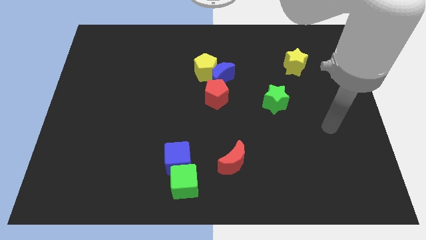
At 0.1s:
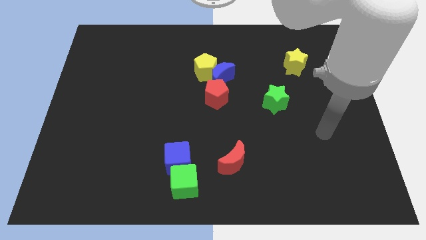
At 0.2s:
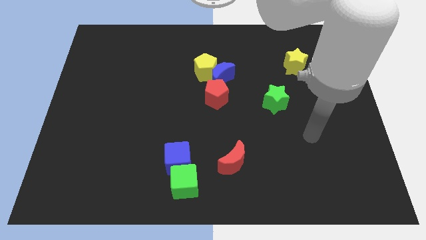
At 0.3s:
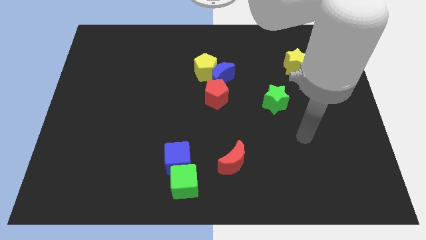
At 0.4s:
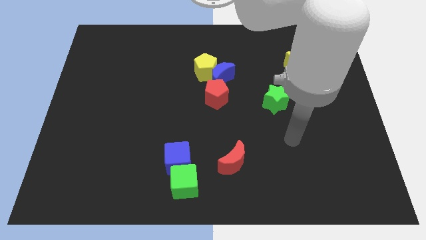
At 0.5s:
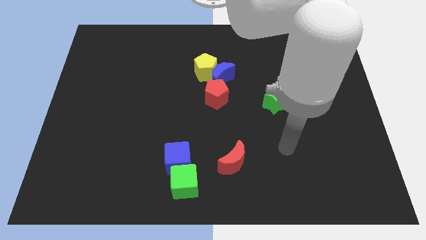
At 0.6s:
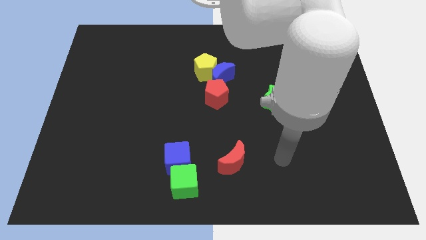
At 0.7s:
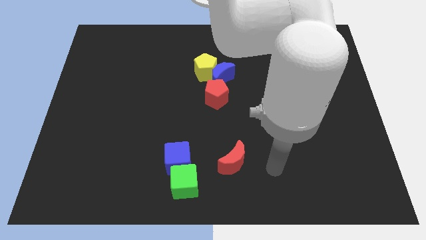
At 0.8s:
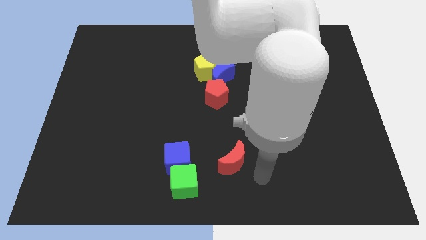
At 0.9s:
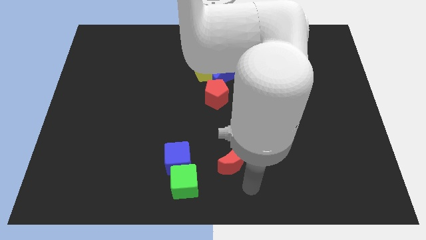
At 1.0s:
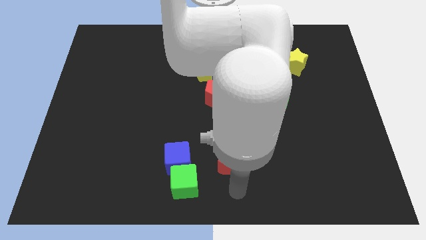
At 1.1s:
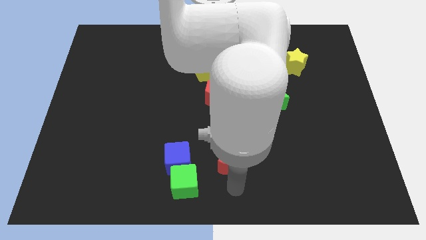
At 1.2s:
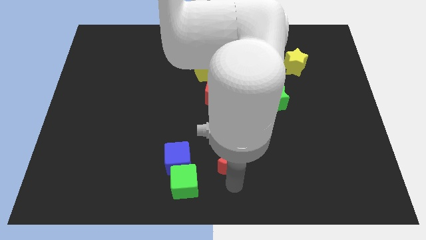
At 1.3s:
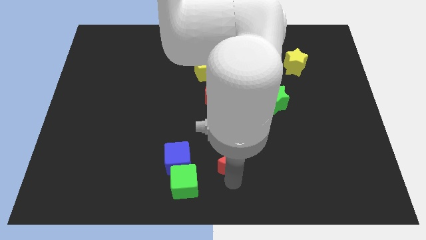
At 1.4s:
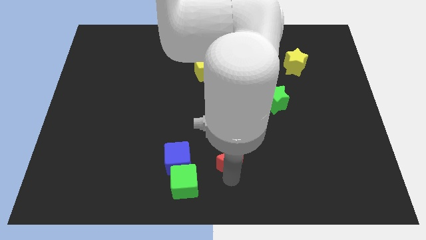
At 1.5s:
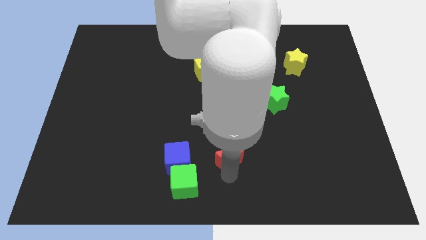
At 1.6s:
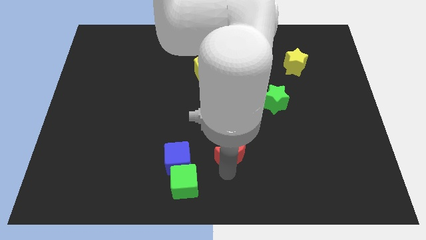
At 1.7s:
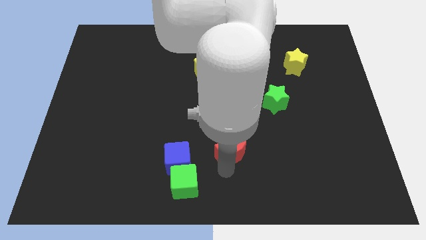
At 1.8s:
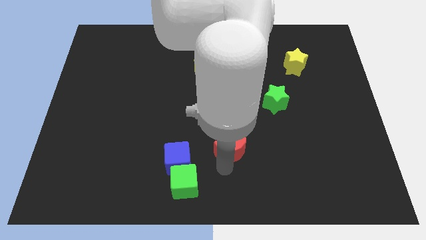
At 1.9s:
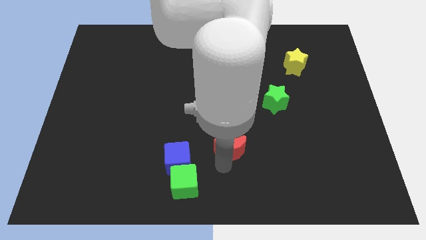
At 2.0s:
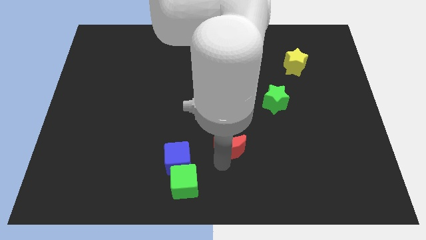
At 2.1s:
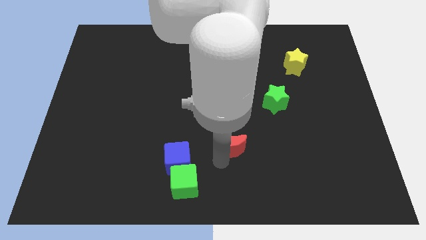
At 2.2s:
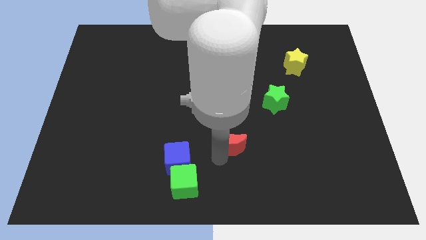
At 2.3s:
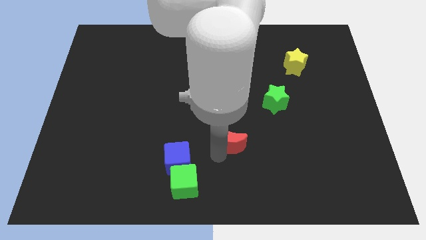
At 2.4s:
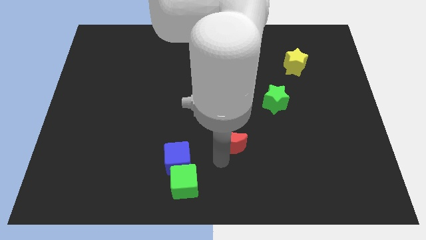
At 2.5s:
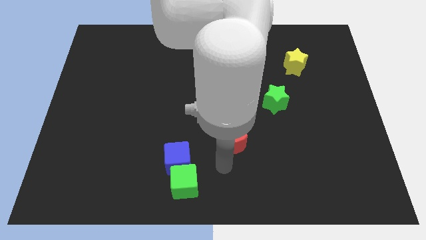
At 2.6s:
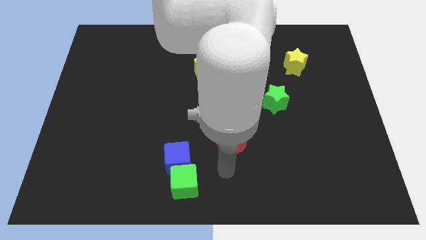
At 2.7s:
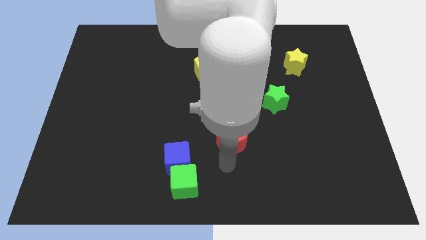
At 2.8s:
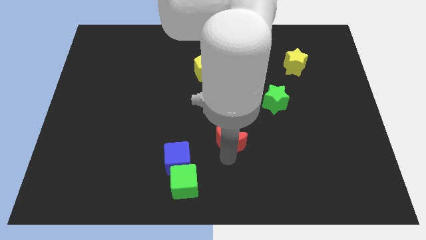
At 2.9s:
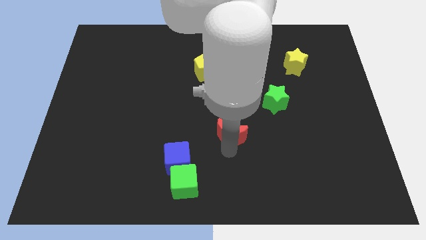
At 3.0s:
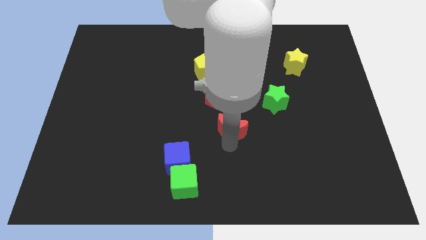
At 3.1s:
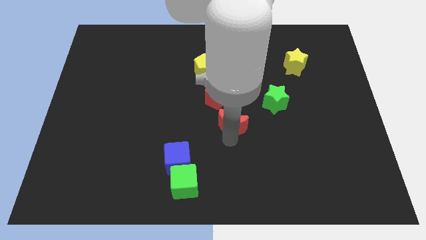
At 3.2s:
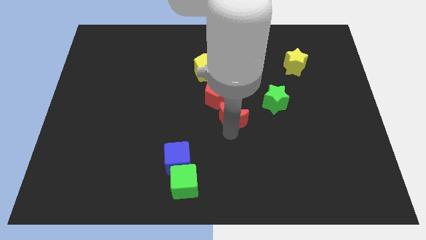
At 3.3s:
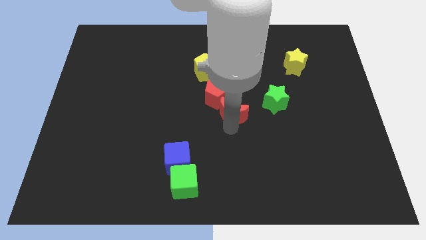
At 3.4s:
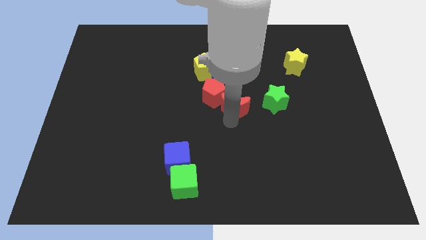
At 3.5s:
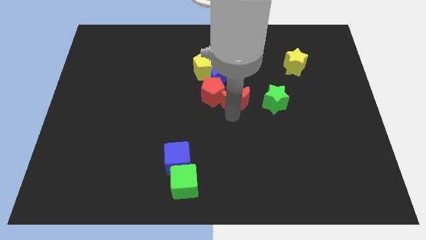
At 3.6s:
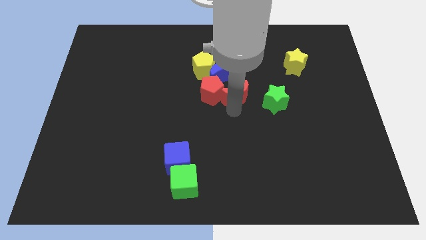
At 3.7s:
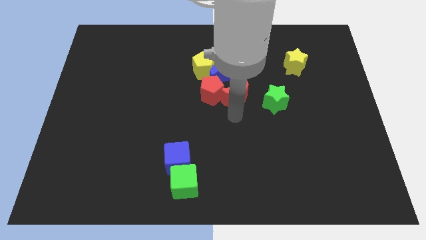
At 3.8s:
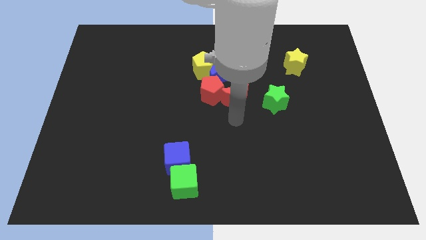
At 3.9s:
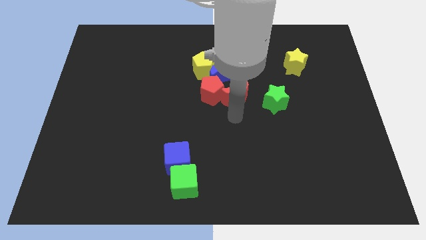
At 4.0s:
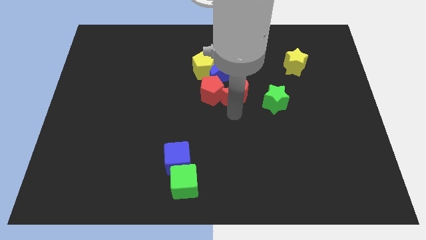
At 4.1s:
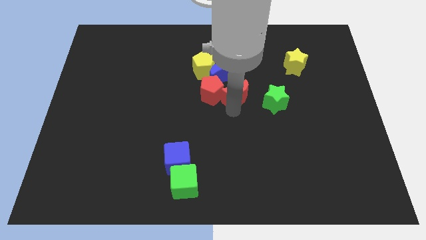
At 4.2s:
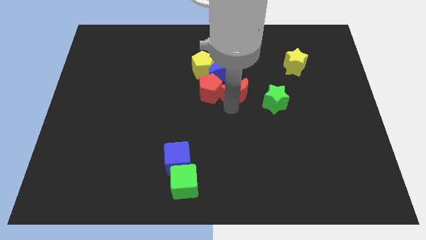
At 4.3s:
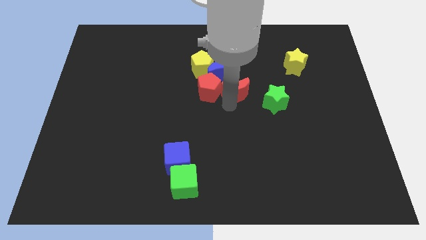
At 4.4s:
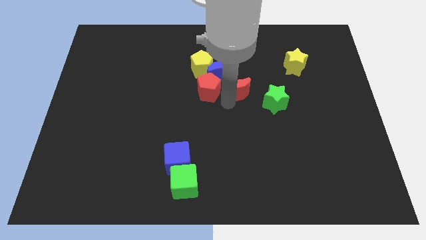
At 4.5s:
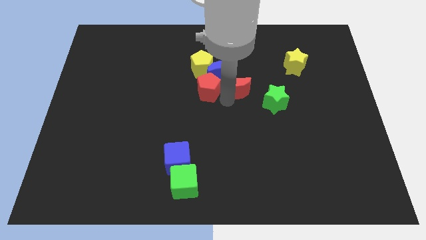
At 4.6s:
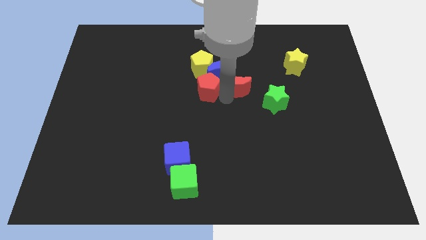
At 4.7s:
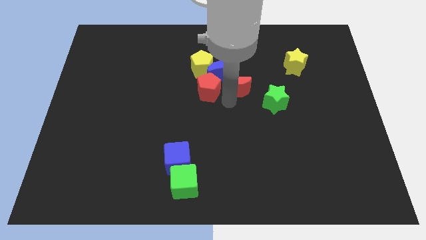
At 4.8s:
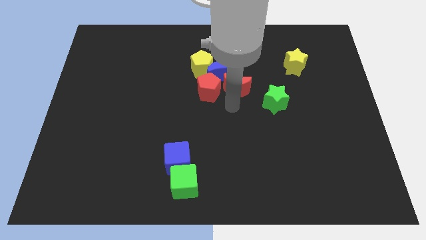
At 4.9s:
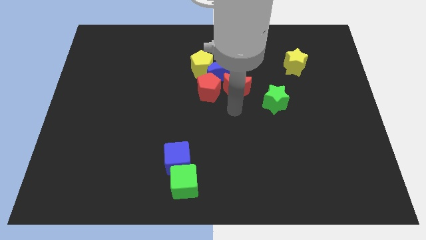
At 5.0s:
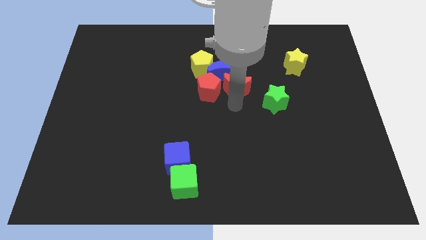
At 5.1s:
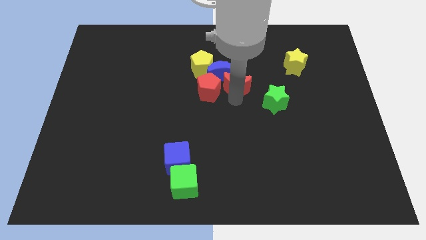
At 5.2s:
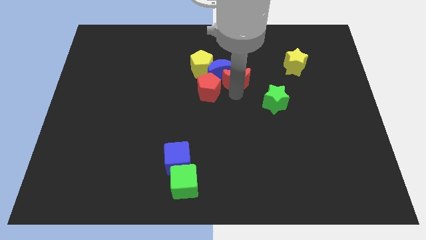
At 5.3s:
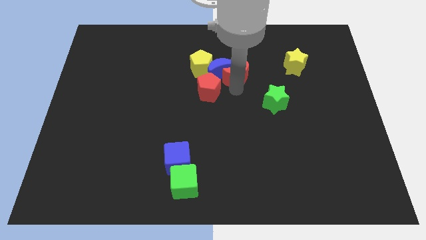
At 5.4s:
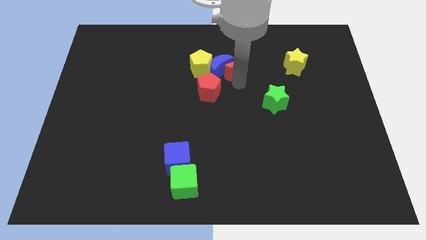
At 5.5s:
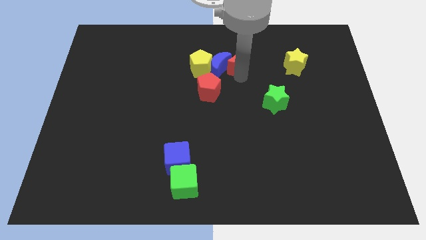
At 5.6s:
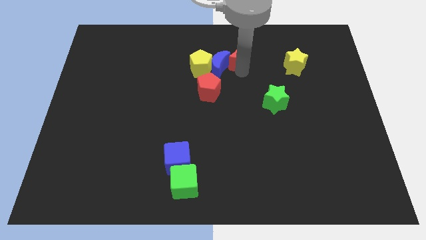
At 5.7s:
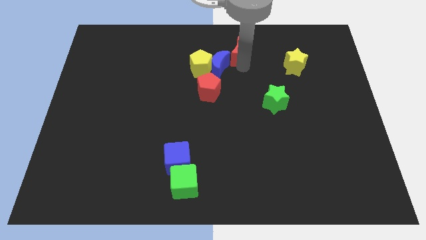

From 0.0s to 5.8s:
put the red moon to the top right side of the yellow pentagon

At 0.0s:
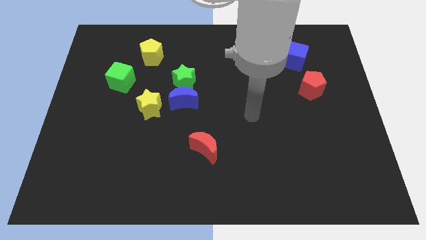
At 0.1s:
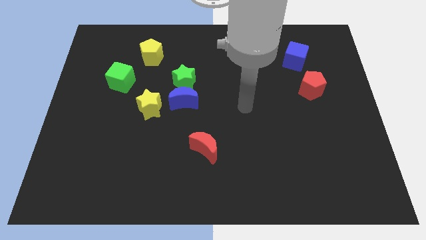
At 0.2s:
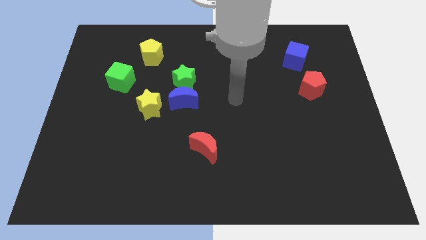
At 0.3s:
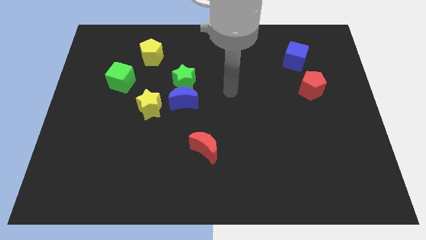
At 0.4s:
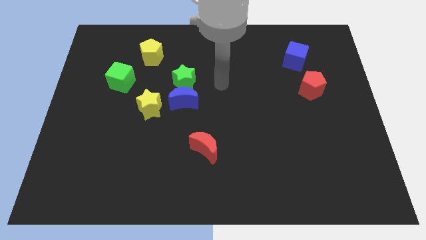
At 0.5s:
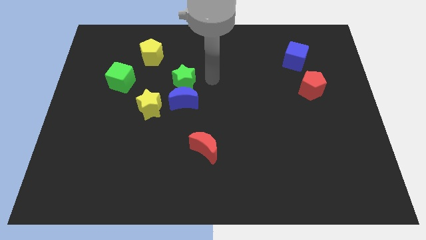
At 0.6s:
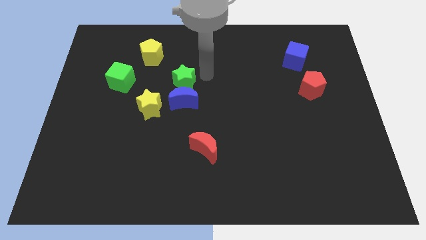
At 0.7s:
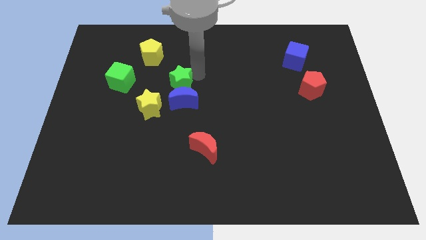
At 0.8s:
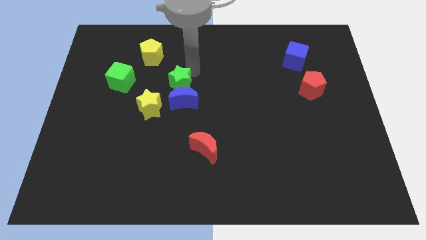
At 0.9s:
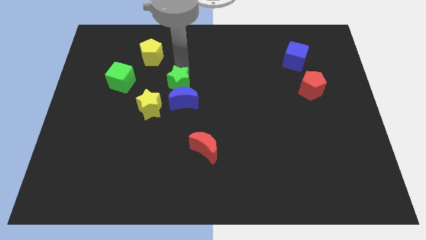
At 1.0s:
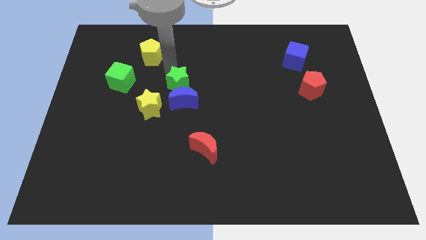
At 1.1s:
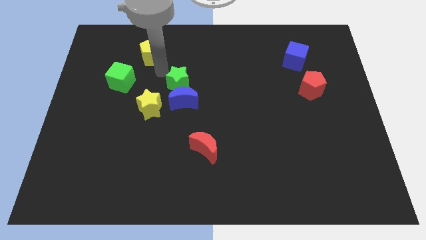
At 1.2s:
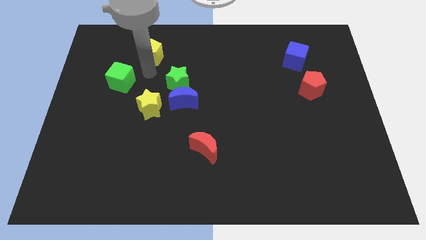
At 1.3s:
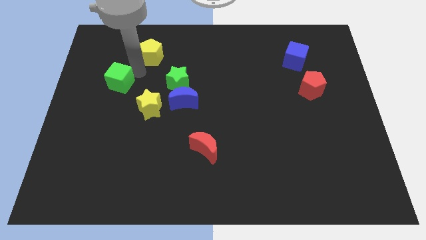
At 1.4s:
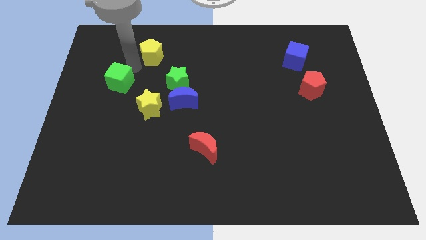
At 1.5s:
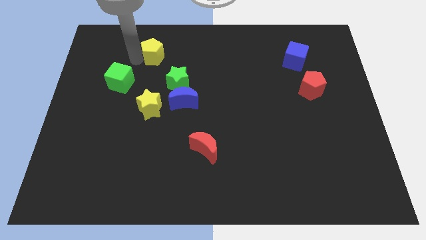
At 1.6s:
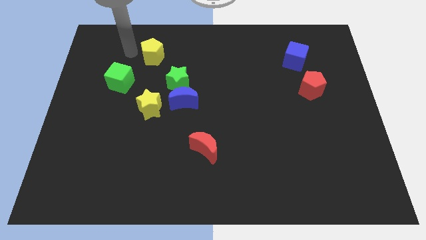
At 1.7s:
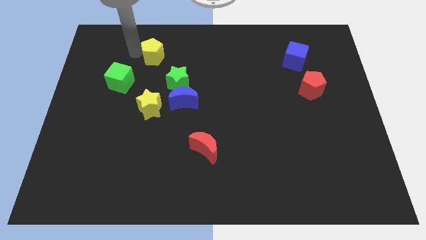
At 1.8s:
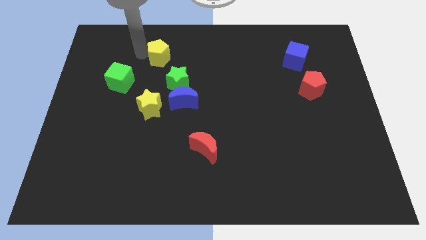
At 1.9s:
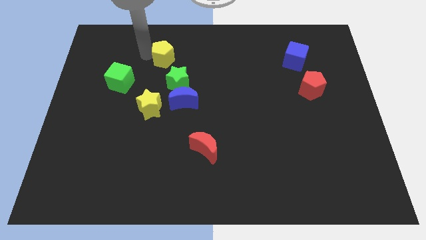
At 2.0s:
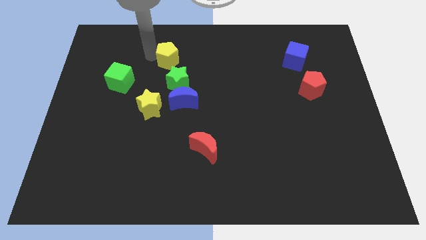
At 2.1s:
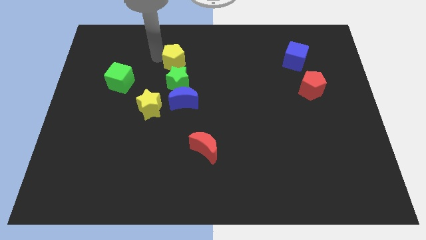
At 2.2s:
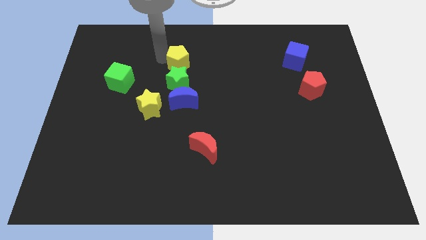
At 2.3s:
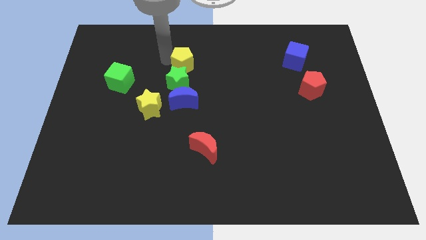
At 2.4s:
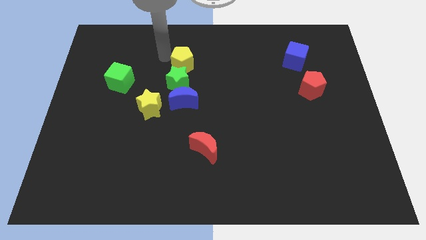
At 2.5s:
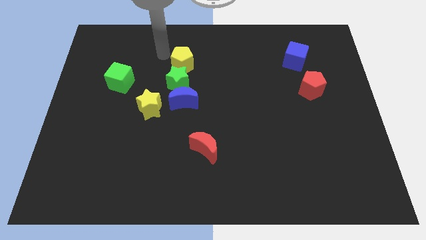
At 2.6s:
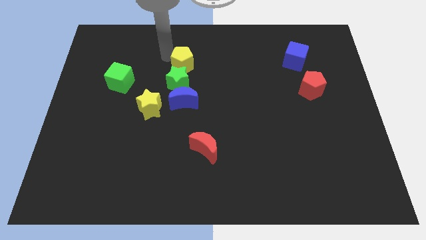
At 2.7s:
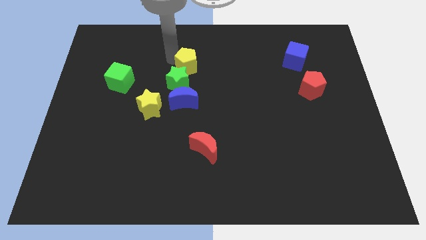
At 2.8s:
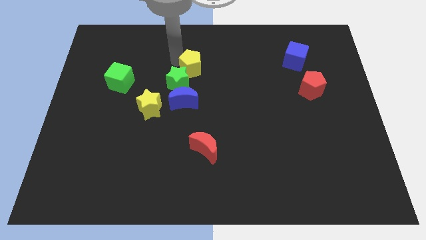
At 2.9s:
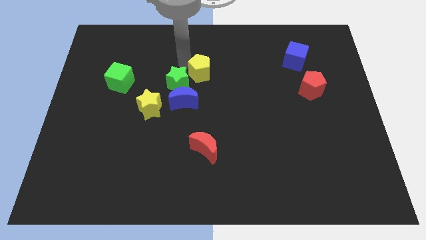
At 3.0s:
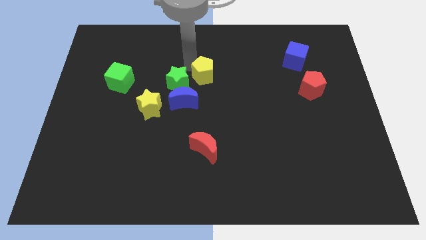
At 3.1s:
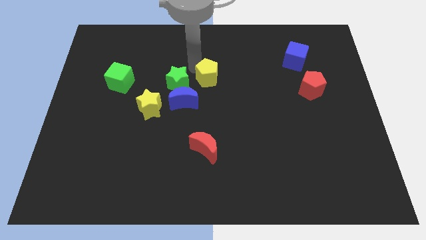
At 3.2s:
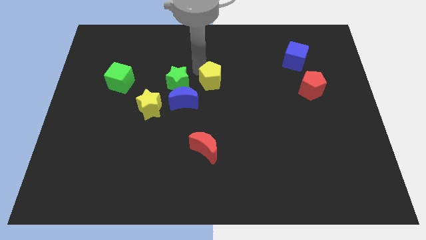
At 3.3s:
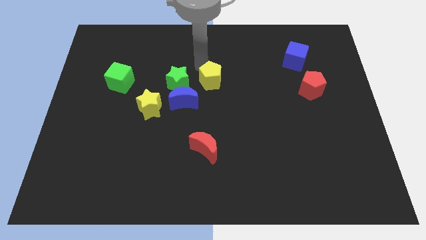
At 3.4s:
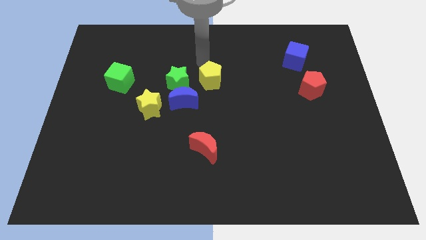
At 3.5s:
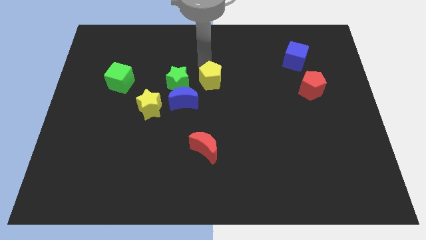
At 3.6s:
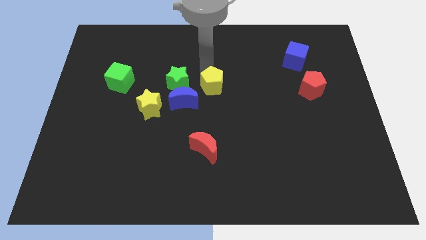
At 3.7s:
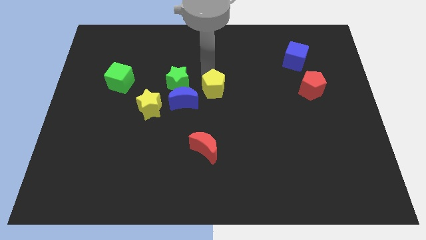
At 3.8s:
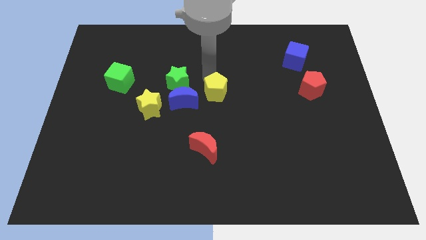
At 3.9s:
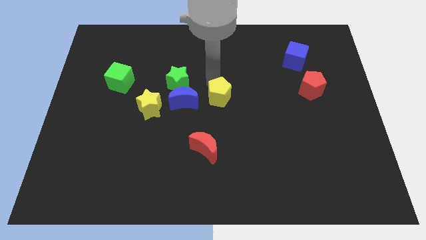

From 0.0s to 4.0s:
move the yellow pentagon to the top side of the red moon
